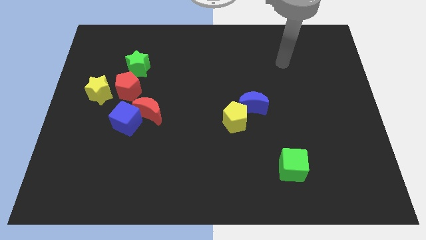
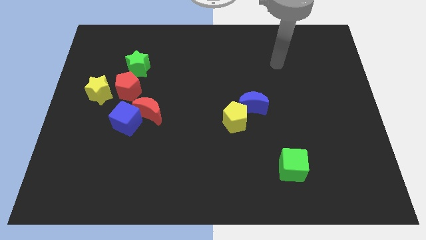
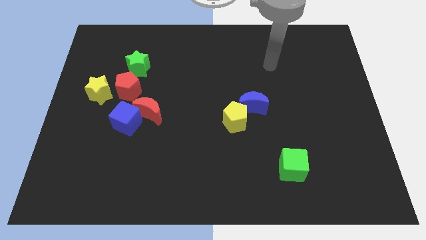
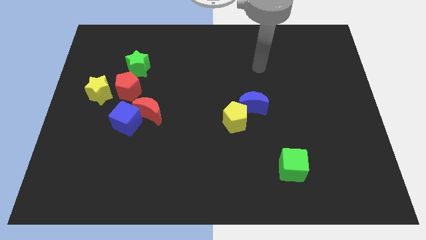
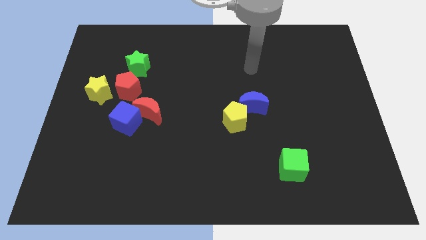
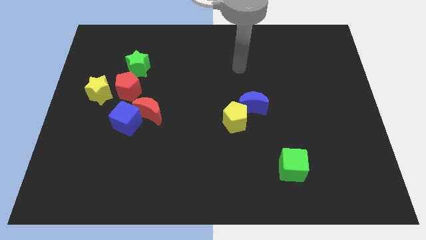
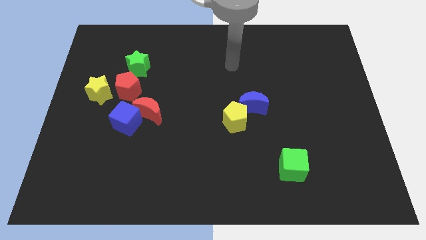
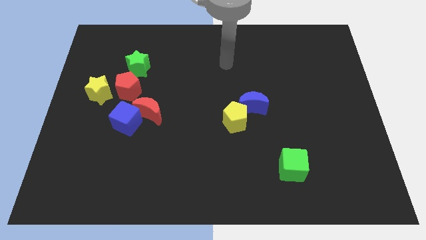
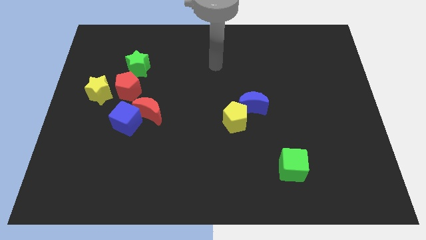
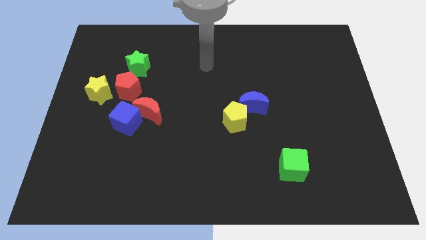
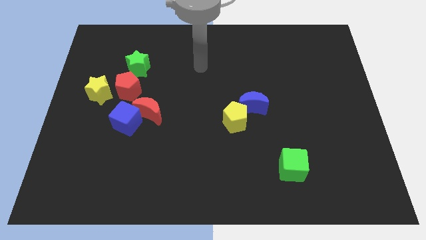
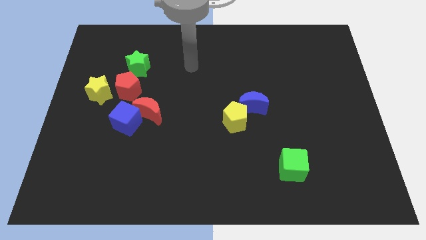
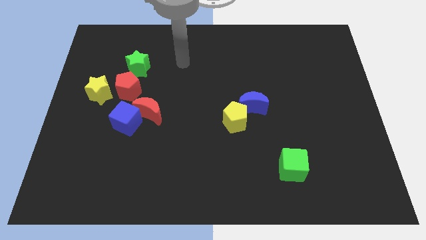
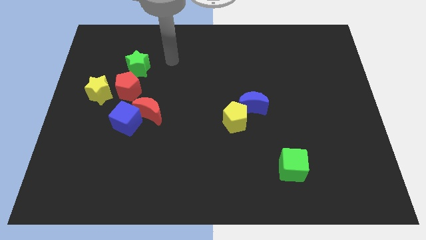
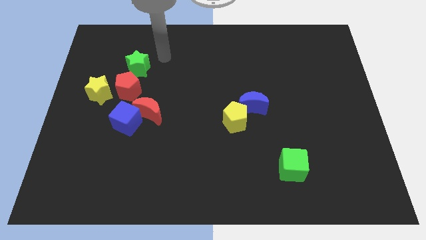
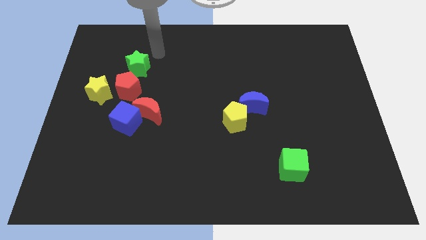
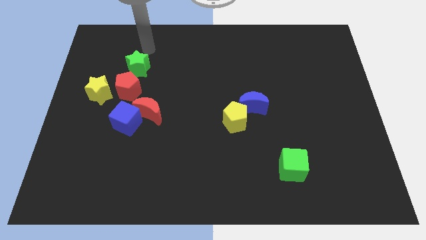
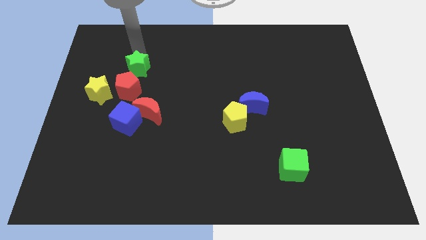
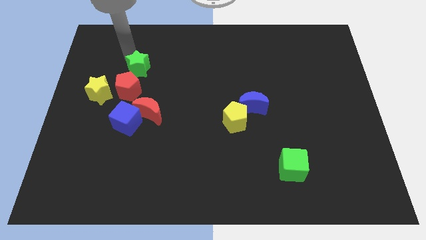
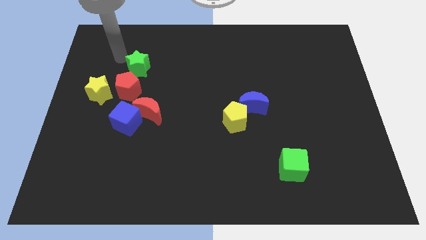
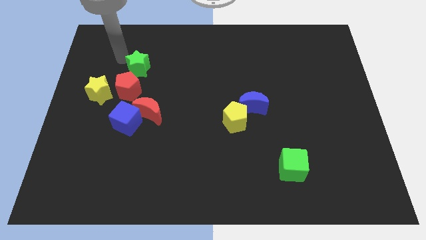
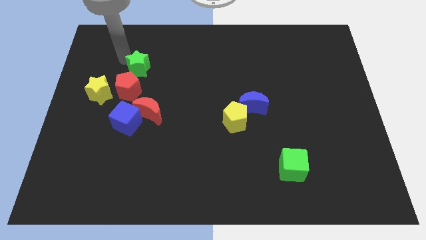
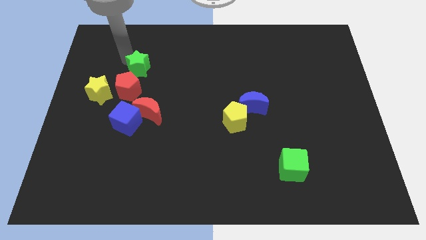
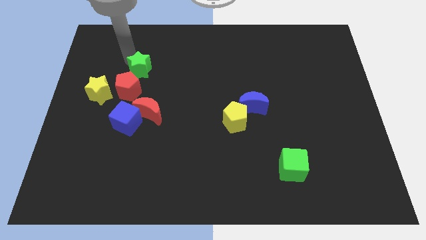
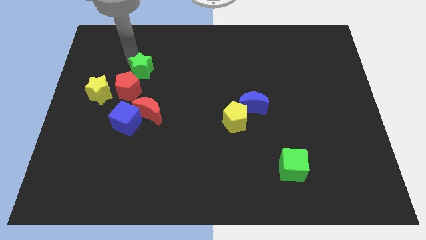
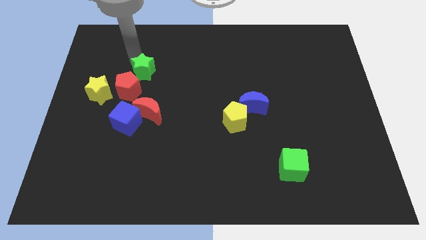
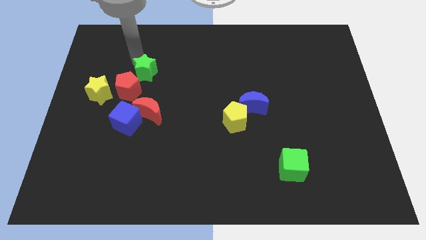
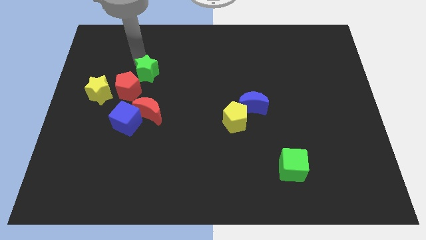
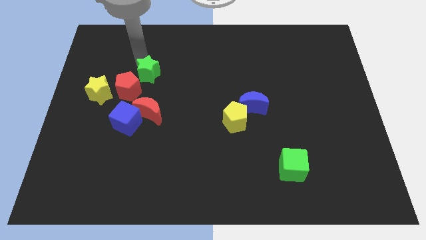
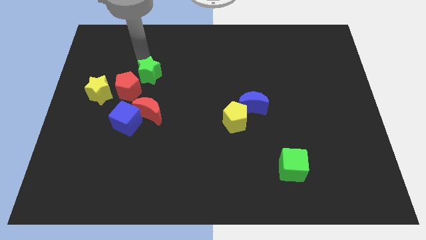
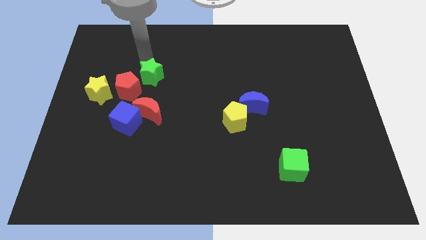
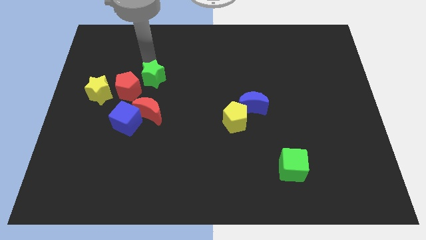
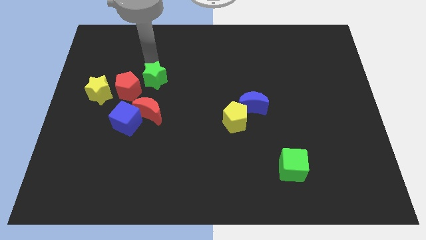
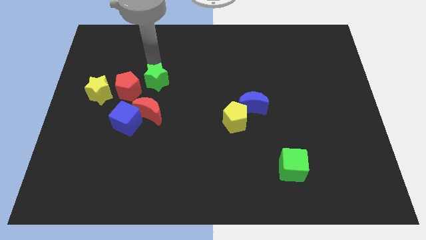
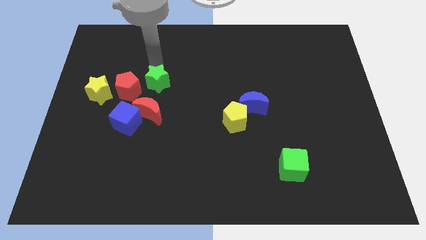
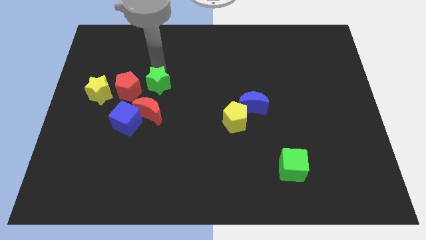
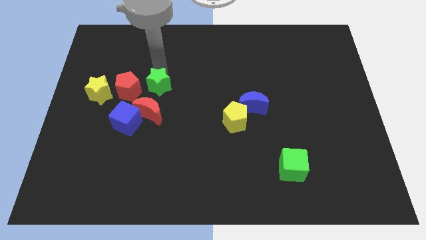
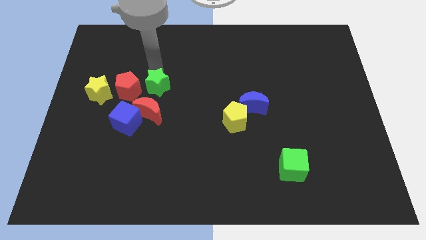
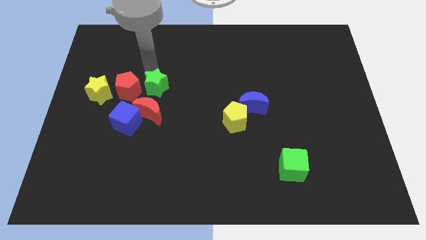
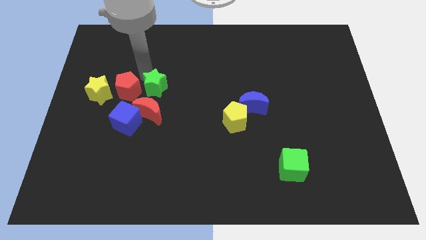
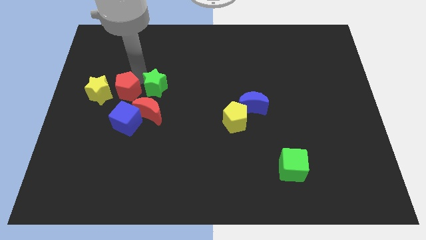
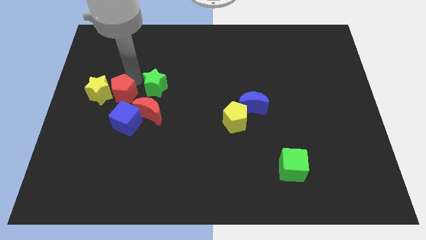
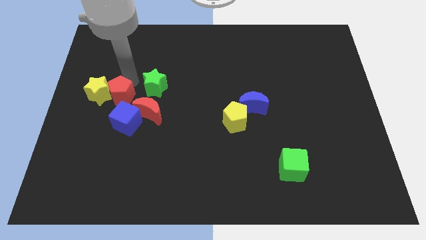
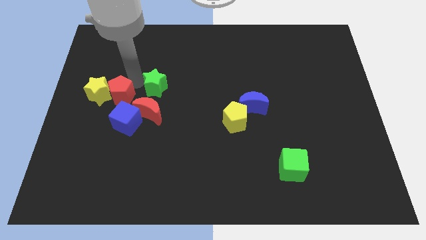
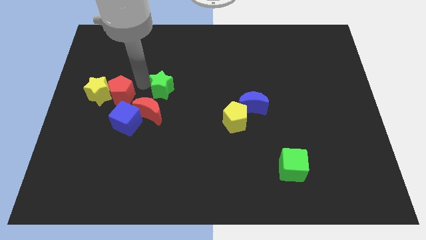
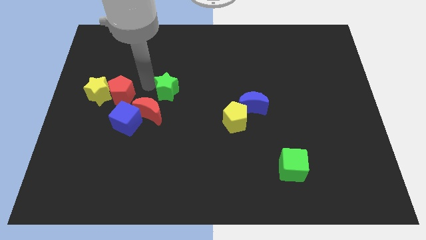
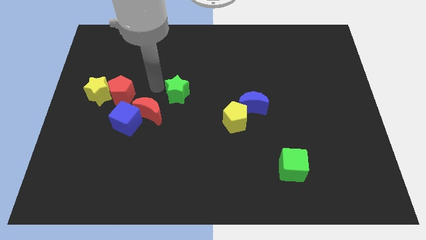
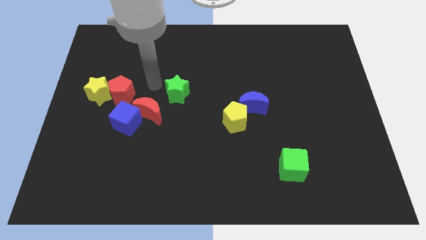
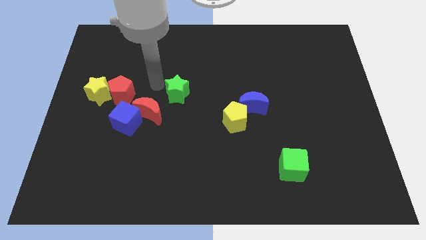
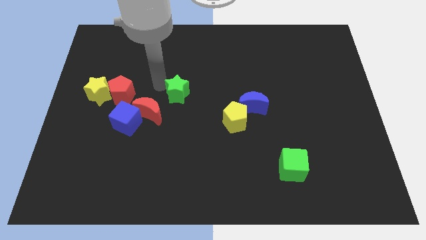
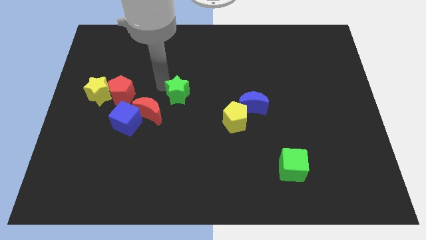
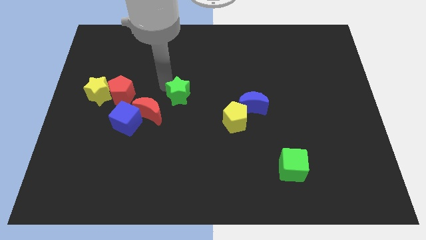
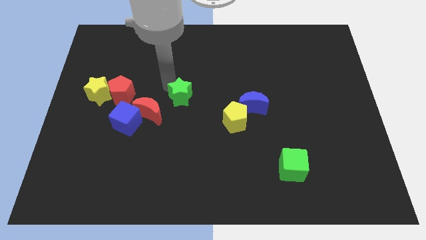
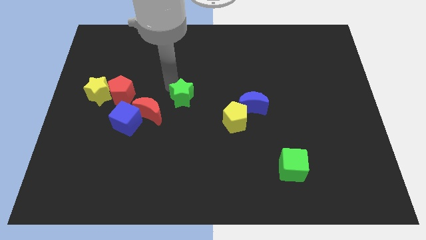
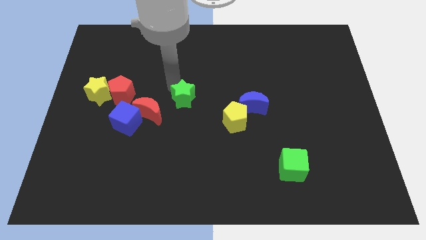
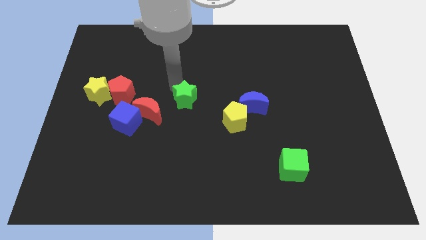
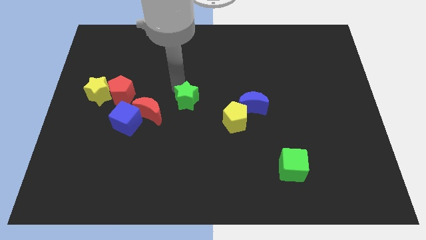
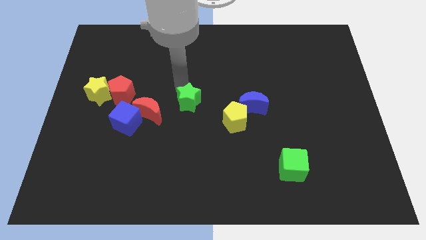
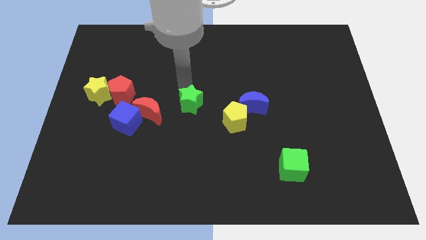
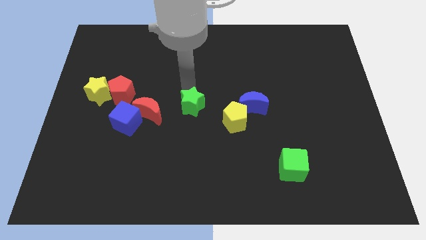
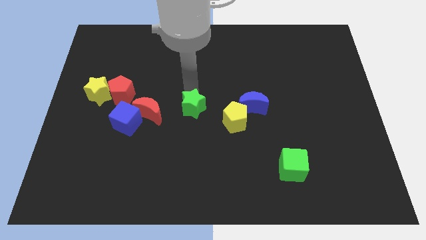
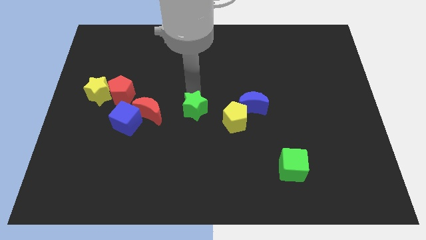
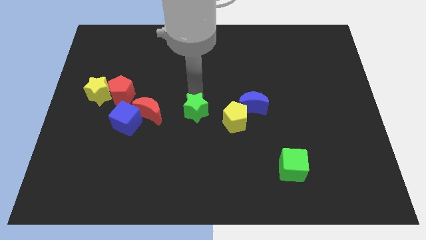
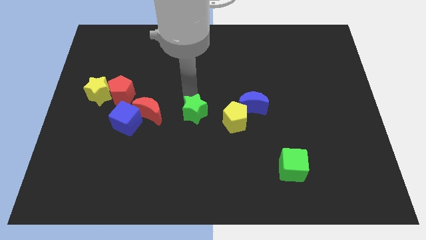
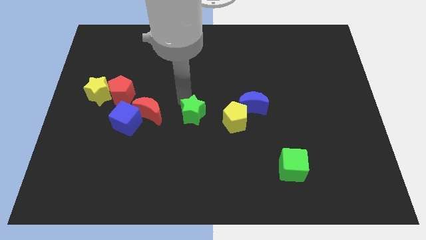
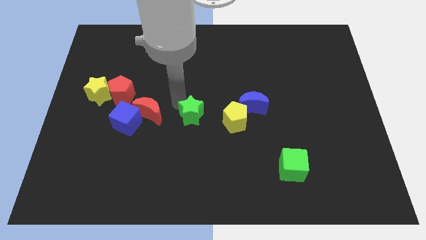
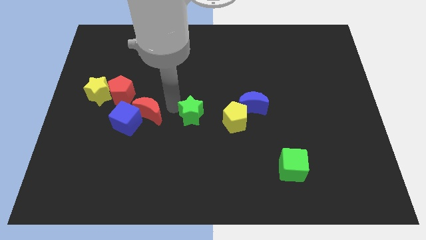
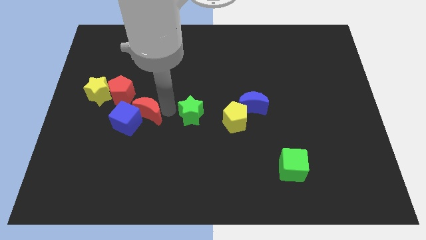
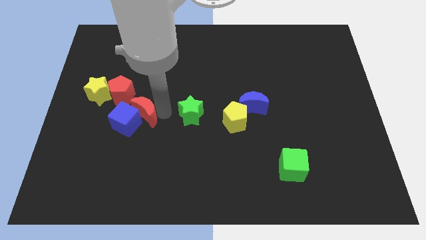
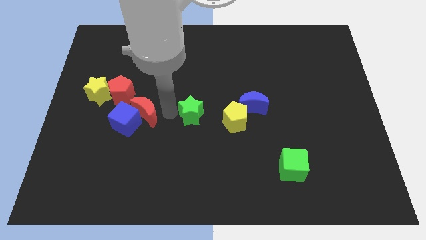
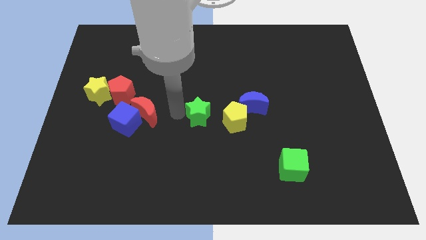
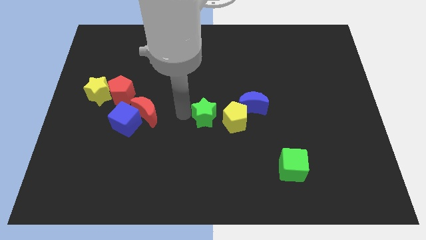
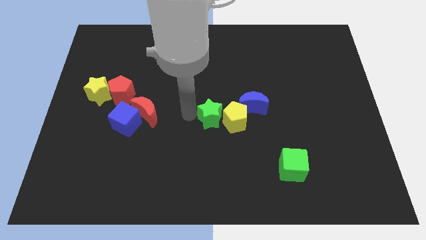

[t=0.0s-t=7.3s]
push the green star close to the yellow pentagon
